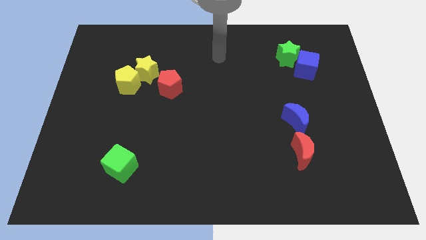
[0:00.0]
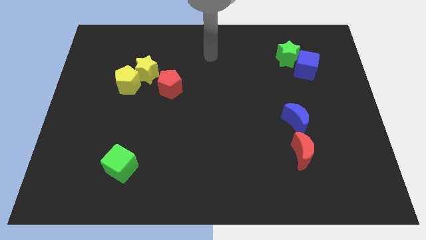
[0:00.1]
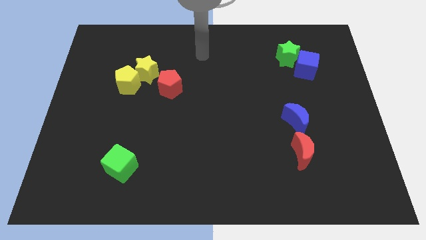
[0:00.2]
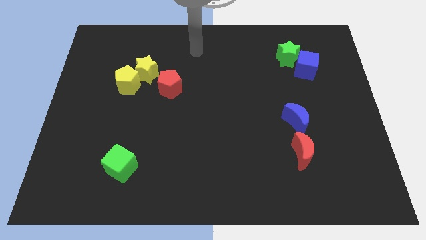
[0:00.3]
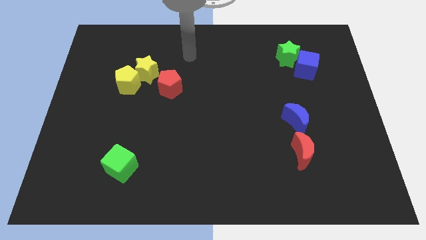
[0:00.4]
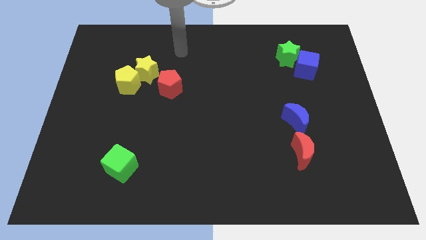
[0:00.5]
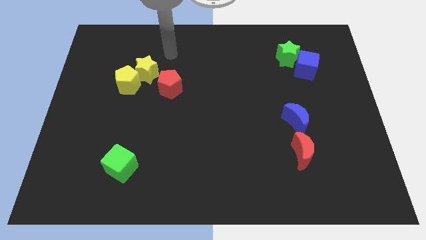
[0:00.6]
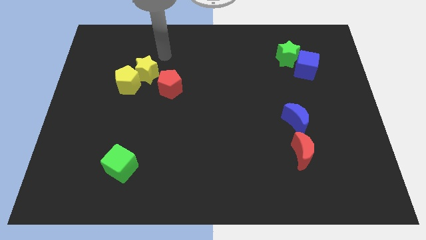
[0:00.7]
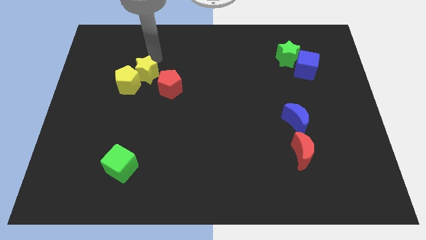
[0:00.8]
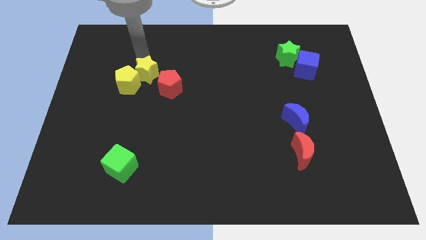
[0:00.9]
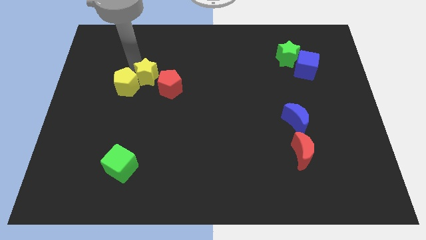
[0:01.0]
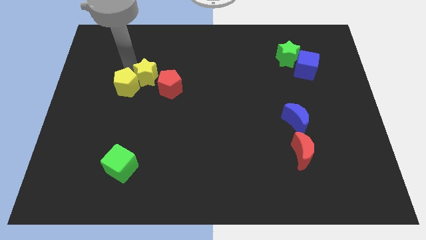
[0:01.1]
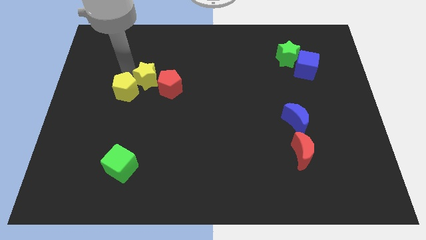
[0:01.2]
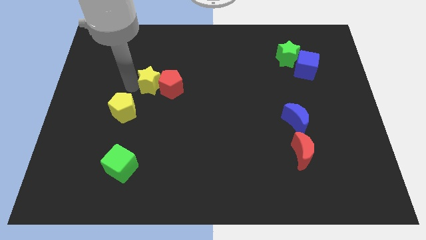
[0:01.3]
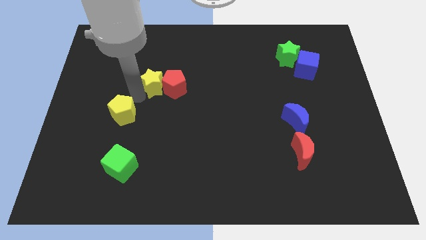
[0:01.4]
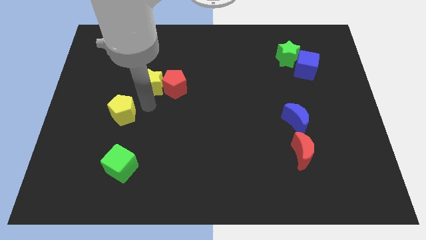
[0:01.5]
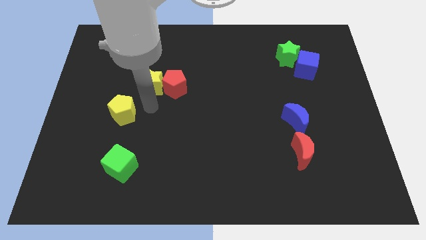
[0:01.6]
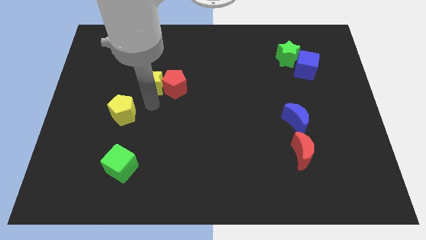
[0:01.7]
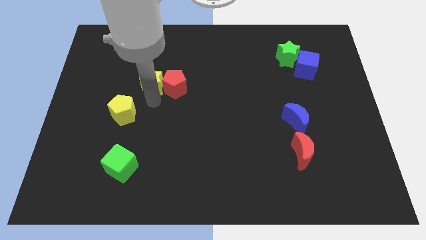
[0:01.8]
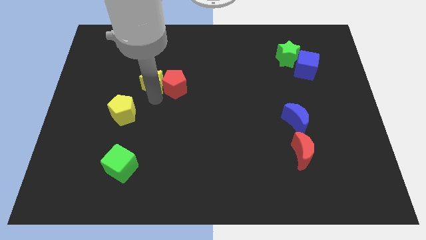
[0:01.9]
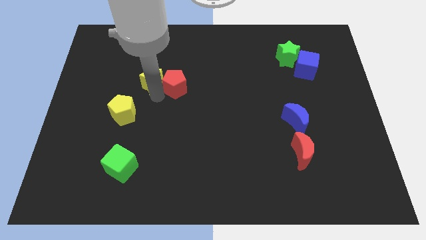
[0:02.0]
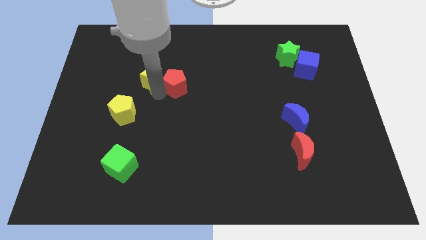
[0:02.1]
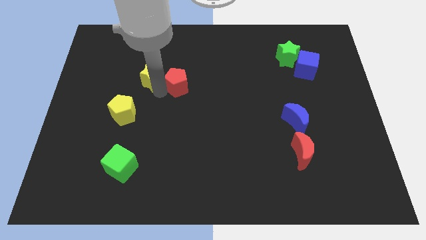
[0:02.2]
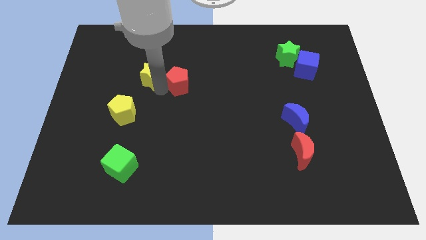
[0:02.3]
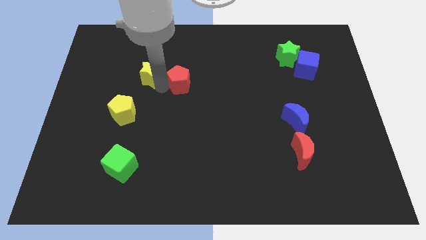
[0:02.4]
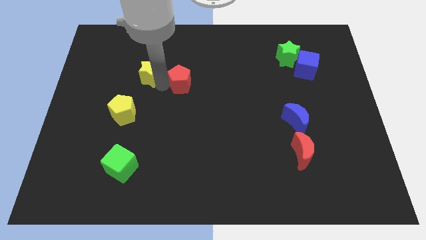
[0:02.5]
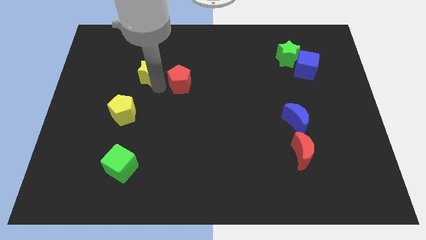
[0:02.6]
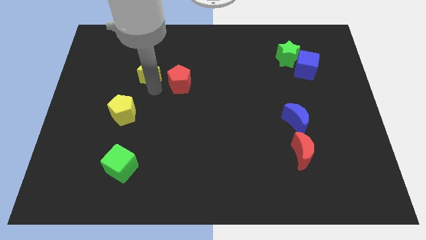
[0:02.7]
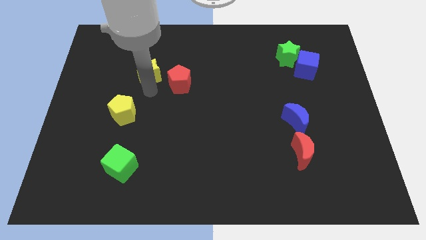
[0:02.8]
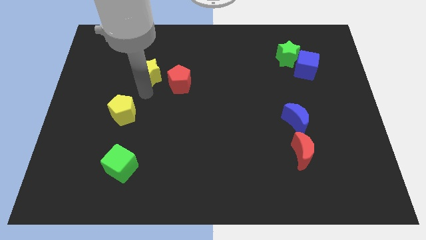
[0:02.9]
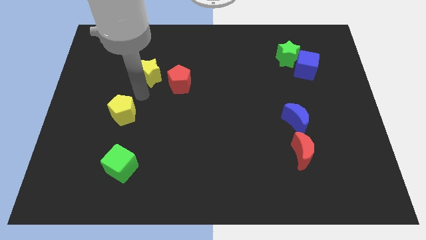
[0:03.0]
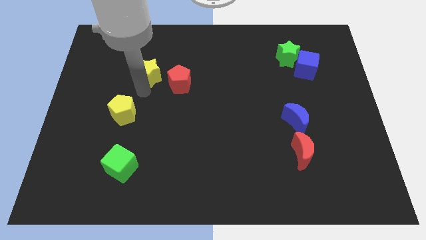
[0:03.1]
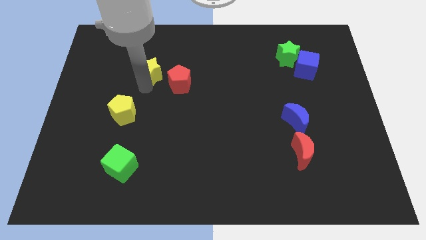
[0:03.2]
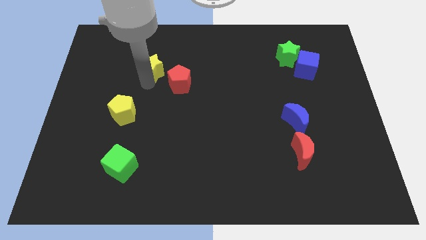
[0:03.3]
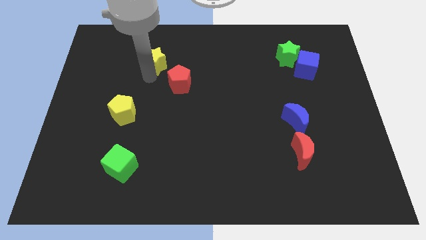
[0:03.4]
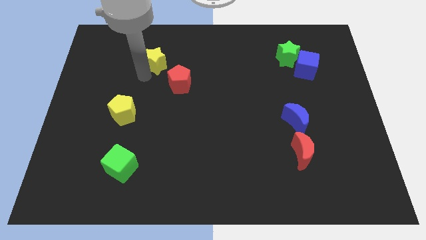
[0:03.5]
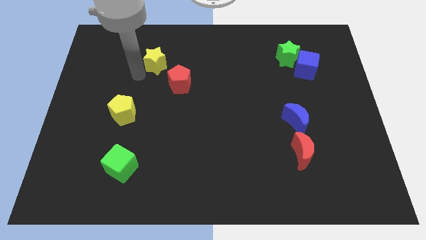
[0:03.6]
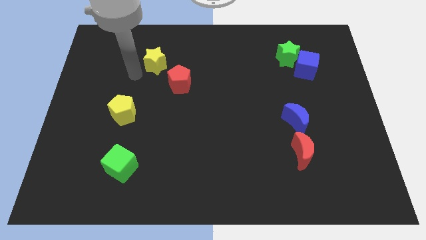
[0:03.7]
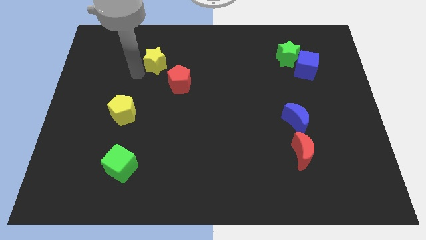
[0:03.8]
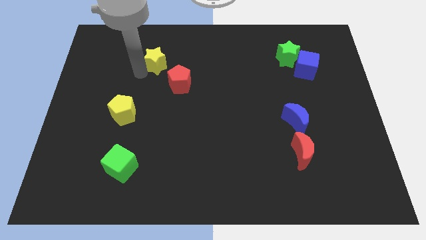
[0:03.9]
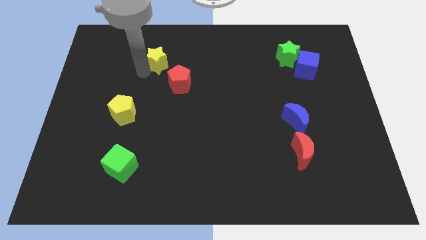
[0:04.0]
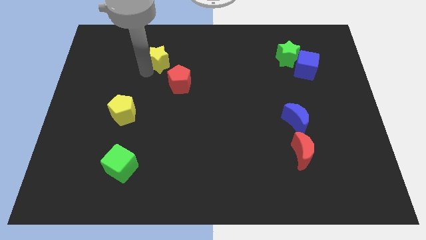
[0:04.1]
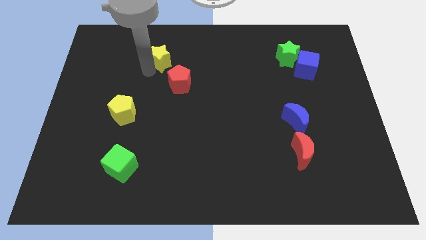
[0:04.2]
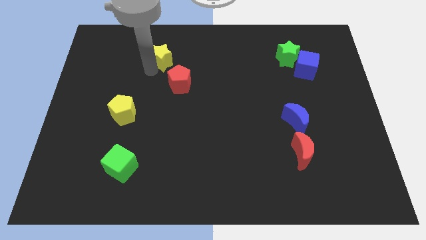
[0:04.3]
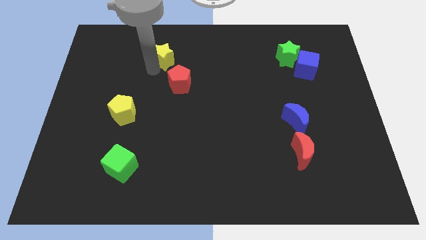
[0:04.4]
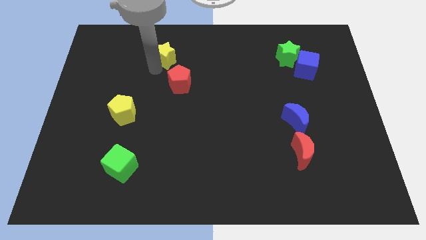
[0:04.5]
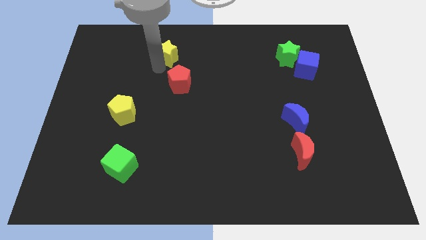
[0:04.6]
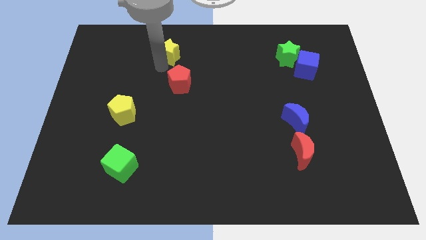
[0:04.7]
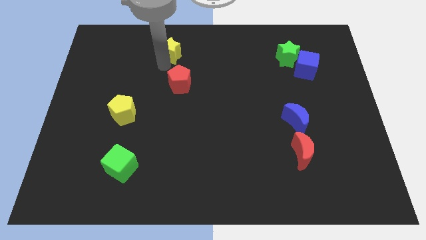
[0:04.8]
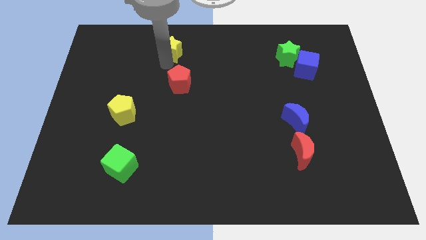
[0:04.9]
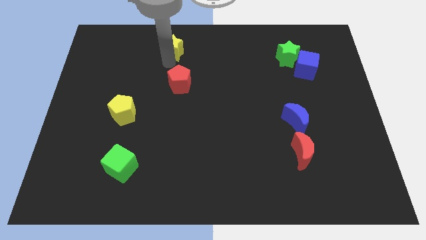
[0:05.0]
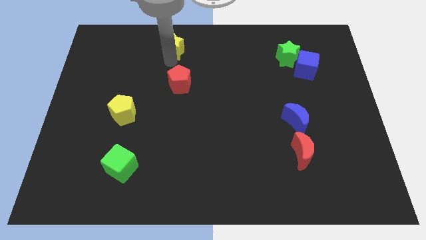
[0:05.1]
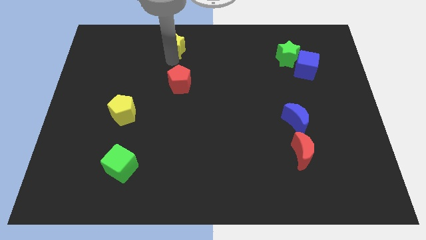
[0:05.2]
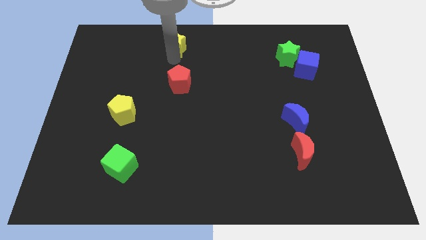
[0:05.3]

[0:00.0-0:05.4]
put the yellow star to the towards your base

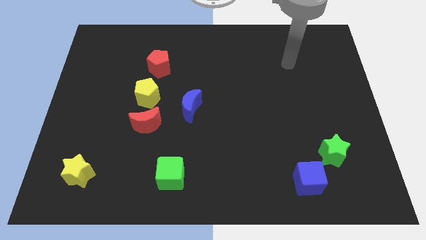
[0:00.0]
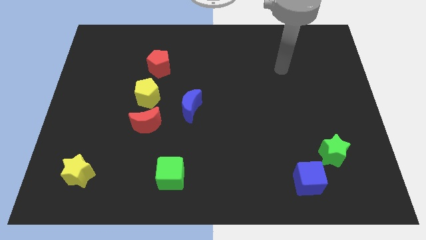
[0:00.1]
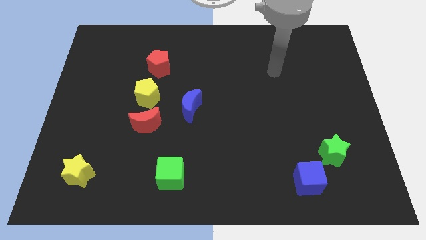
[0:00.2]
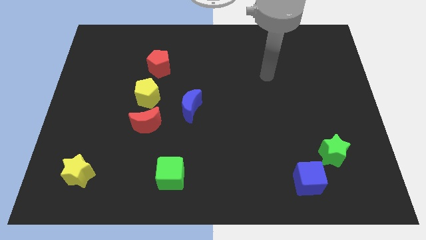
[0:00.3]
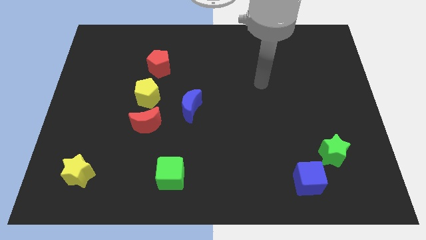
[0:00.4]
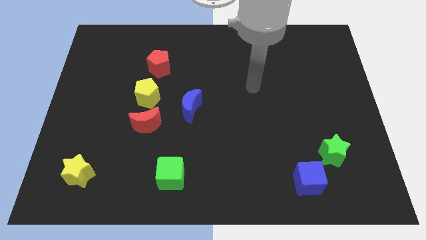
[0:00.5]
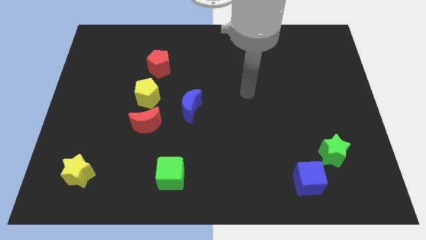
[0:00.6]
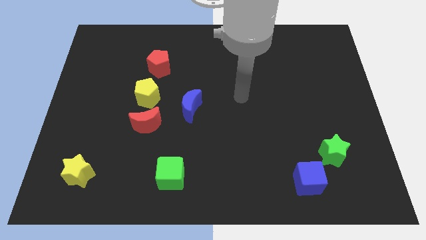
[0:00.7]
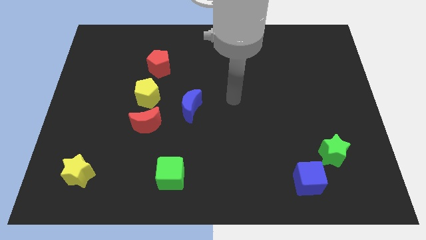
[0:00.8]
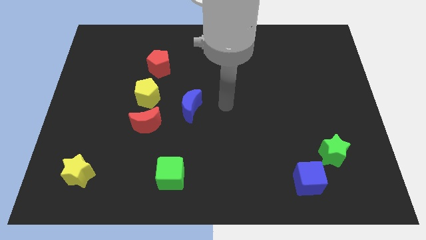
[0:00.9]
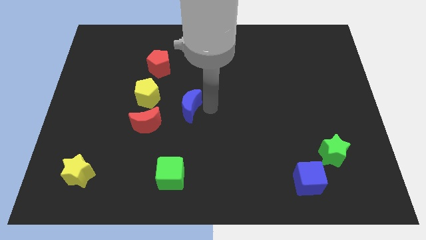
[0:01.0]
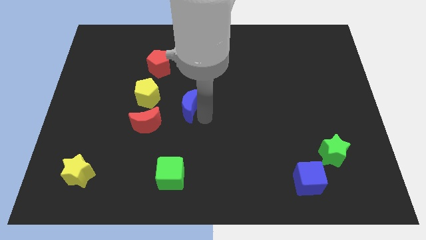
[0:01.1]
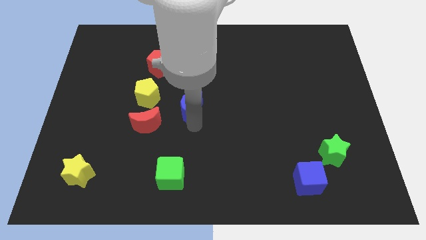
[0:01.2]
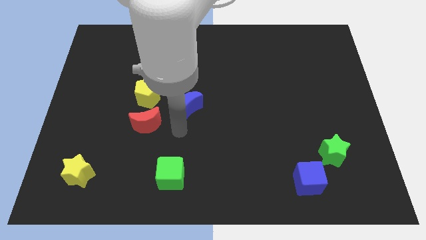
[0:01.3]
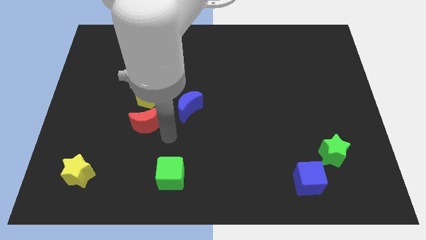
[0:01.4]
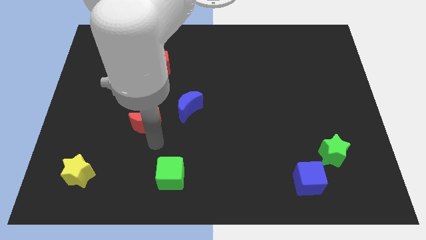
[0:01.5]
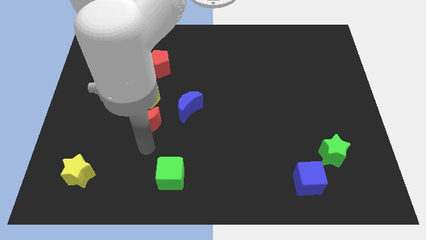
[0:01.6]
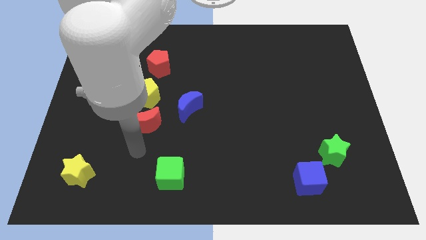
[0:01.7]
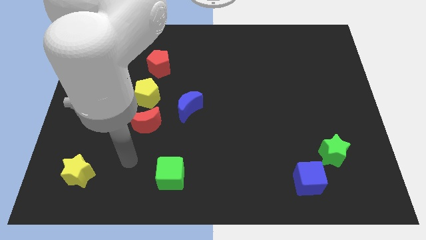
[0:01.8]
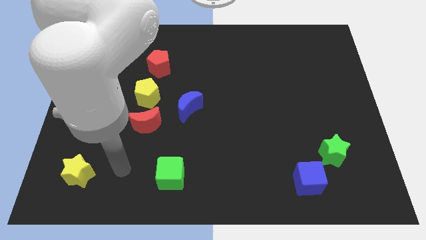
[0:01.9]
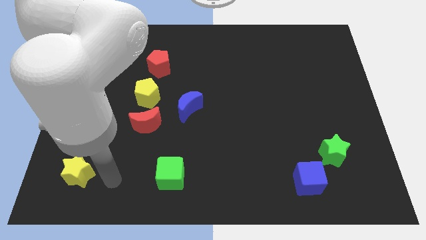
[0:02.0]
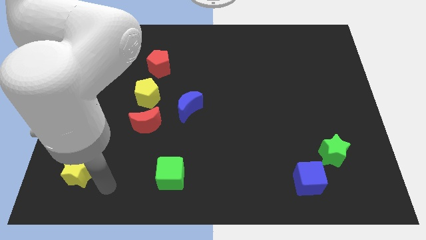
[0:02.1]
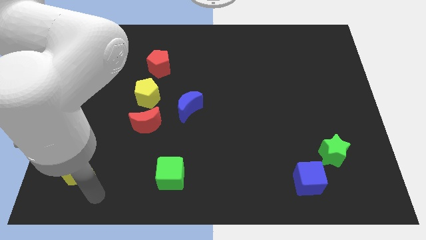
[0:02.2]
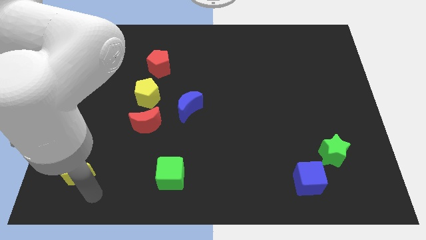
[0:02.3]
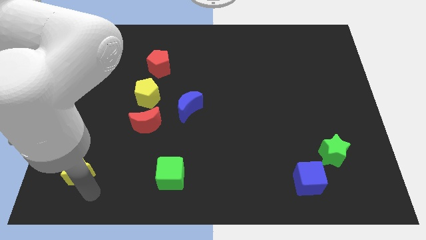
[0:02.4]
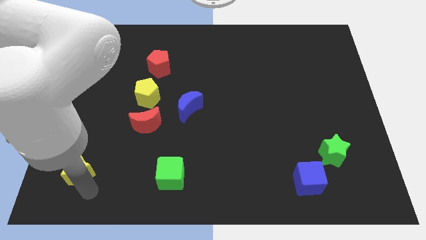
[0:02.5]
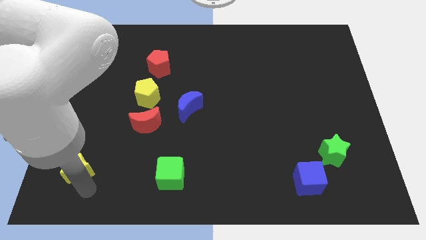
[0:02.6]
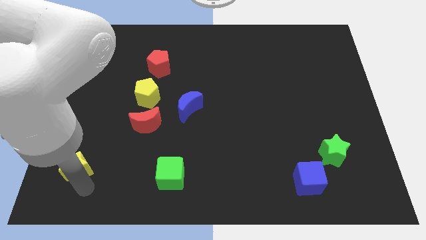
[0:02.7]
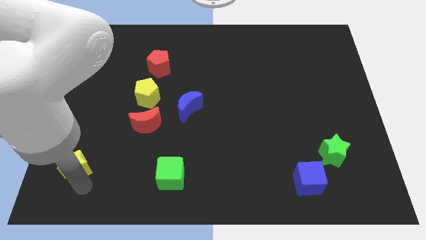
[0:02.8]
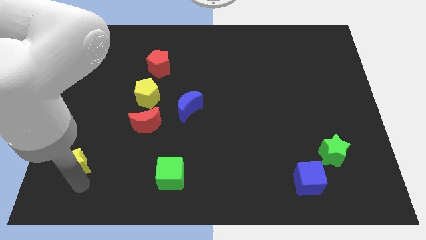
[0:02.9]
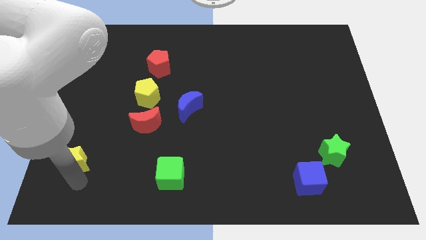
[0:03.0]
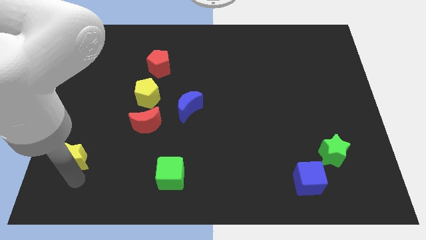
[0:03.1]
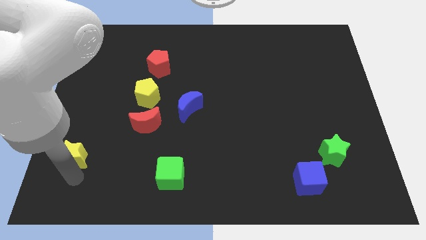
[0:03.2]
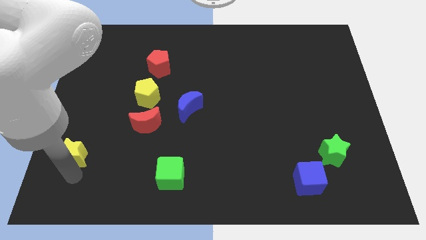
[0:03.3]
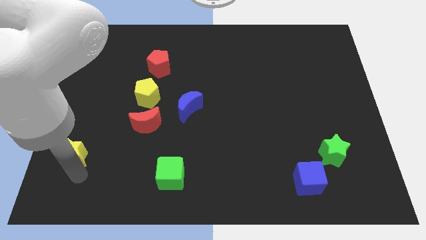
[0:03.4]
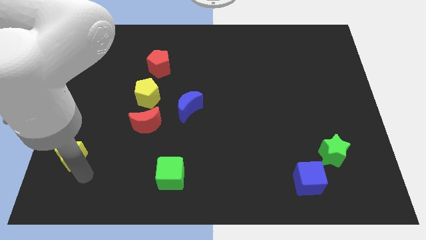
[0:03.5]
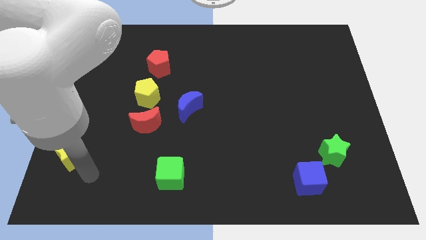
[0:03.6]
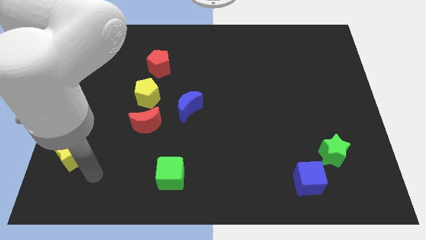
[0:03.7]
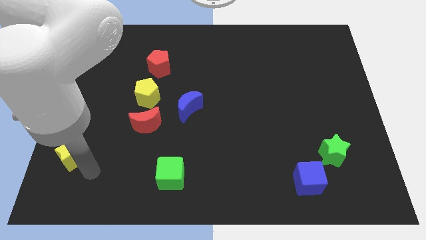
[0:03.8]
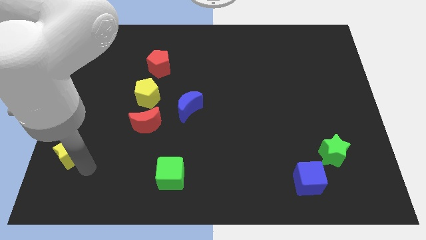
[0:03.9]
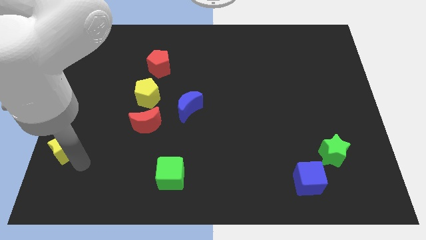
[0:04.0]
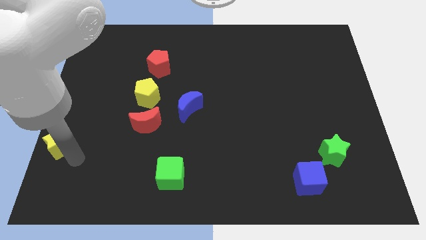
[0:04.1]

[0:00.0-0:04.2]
slide the yellow star to the left side
